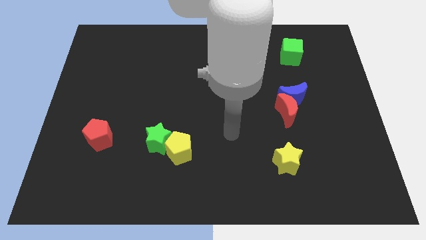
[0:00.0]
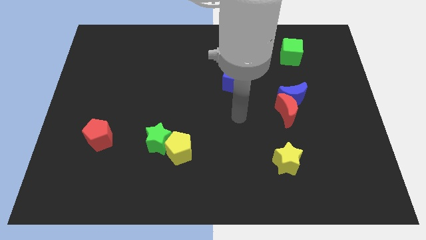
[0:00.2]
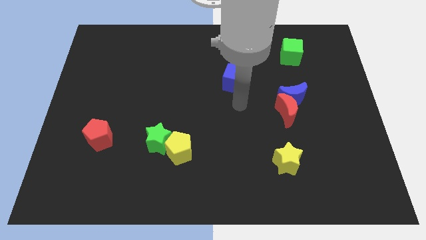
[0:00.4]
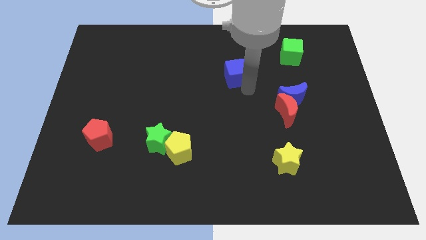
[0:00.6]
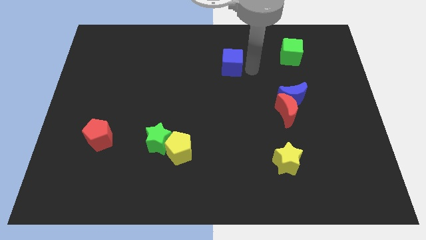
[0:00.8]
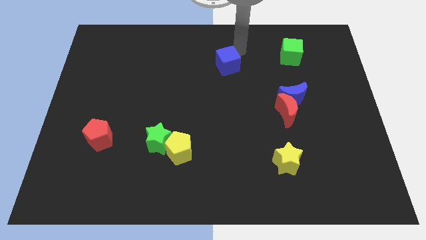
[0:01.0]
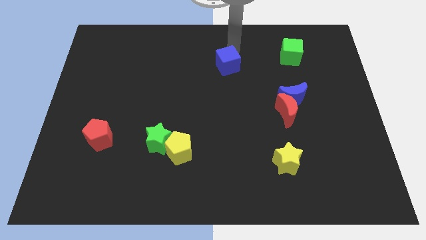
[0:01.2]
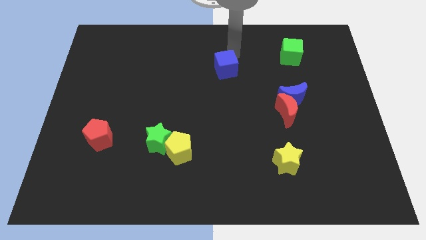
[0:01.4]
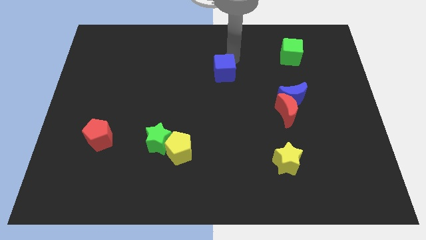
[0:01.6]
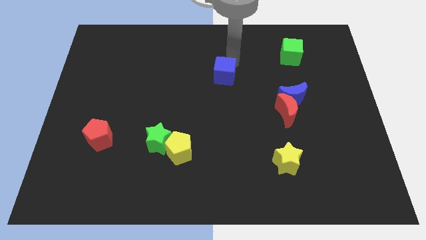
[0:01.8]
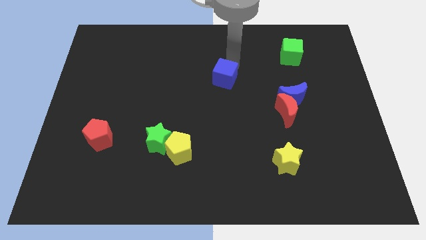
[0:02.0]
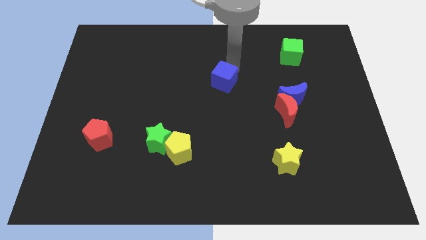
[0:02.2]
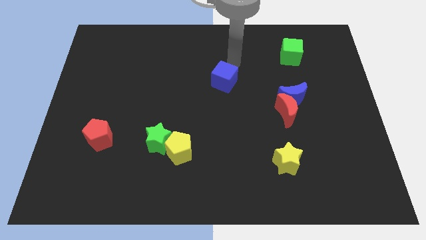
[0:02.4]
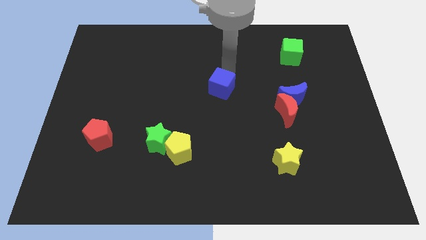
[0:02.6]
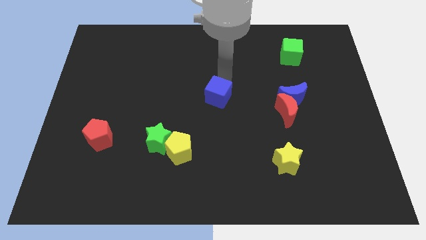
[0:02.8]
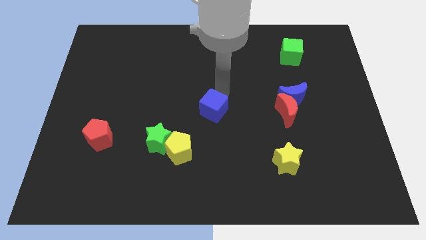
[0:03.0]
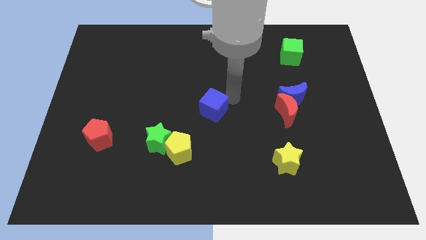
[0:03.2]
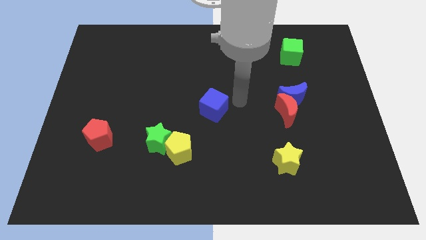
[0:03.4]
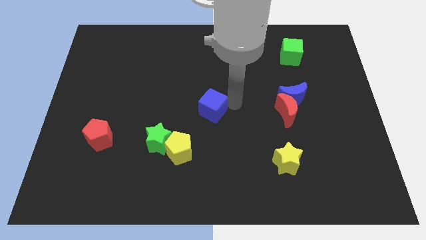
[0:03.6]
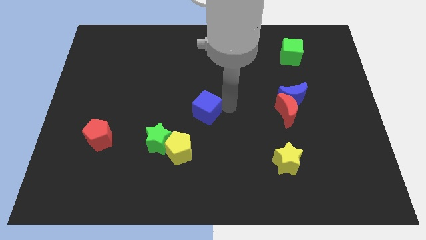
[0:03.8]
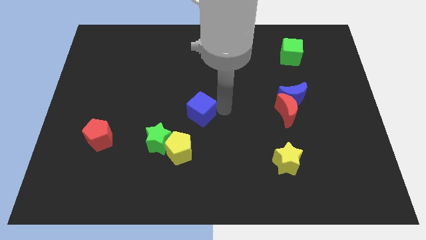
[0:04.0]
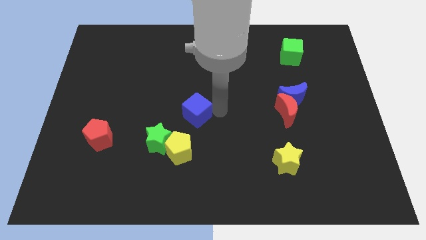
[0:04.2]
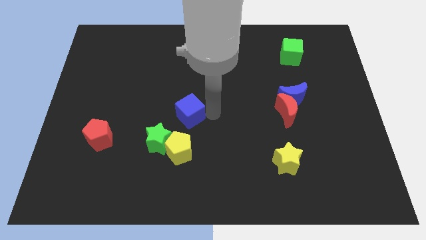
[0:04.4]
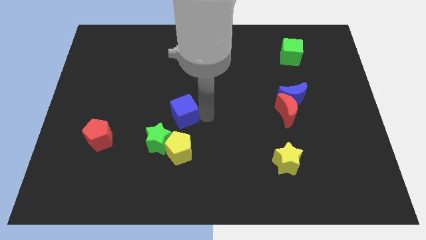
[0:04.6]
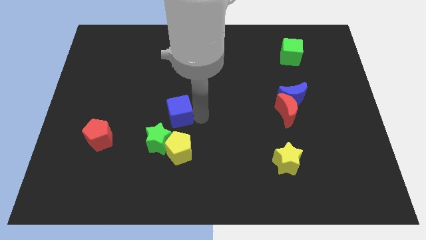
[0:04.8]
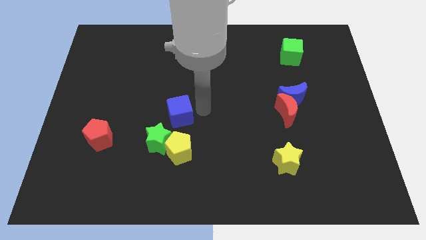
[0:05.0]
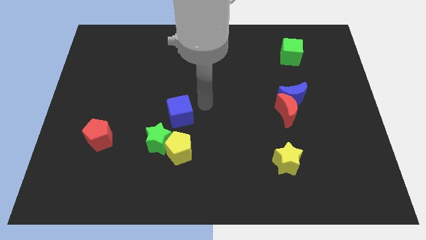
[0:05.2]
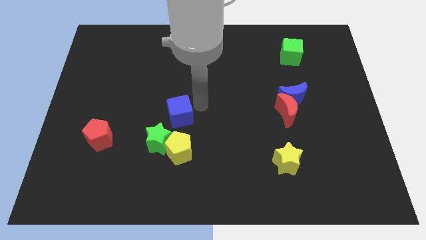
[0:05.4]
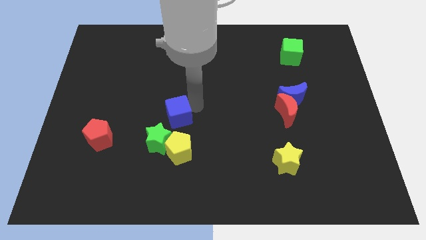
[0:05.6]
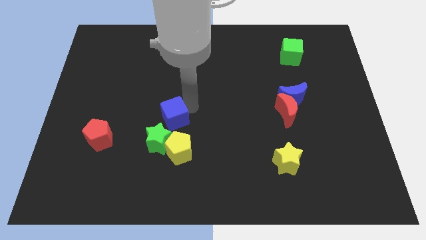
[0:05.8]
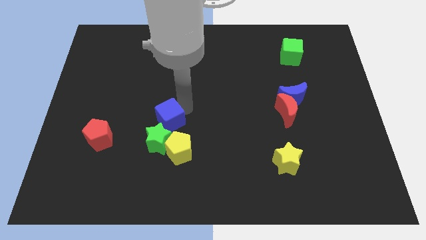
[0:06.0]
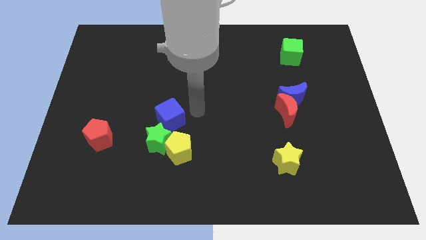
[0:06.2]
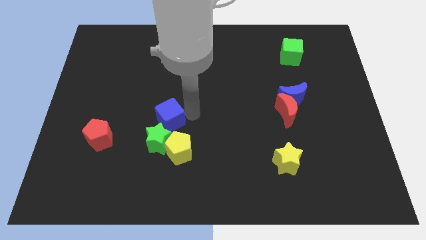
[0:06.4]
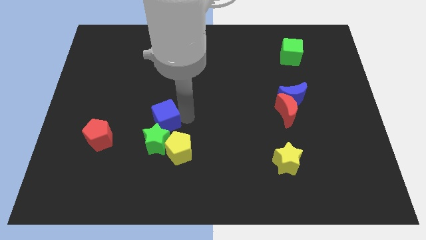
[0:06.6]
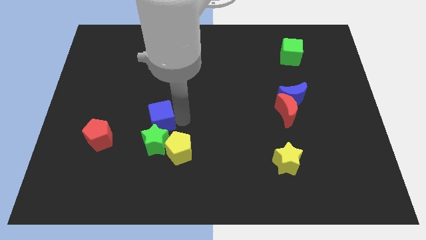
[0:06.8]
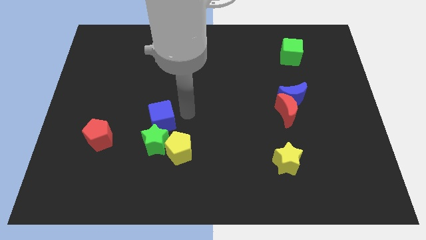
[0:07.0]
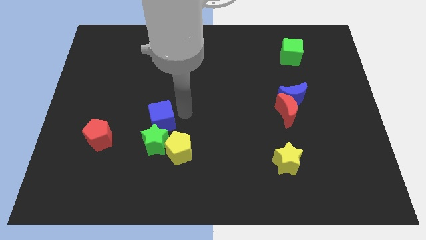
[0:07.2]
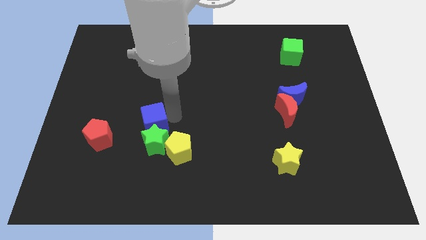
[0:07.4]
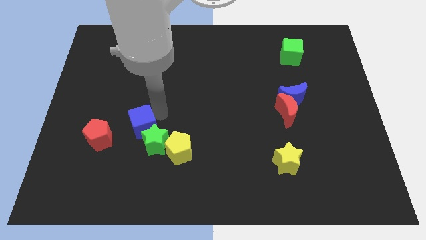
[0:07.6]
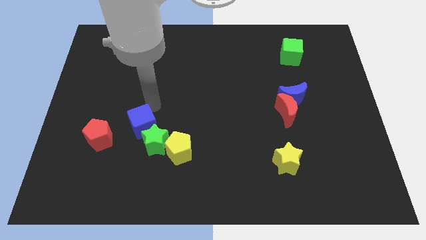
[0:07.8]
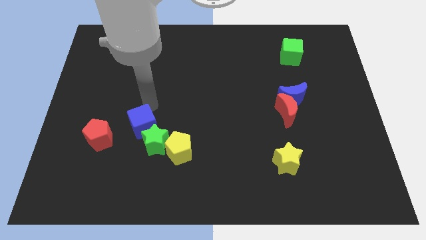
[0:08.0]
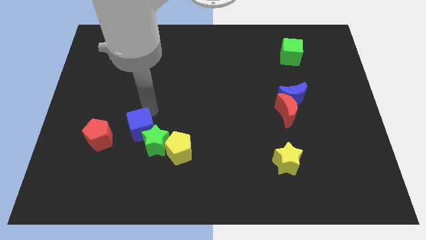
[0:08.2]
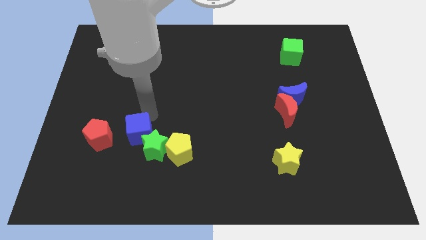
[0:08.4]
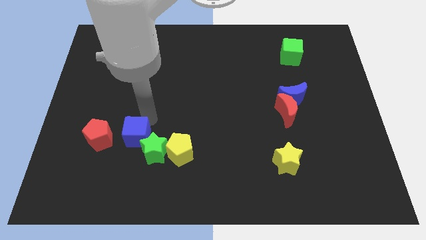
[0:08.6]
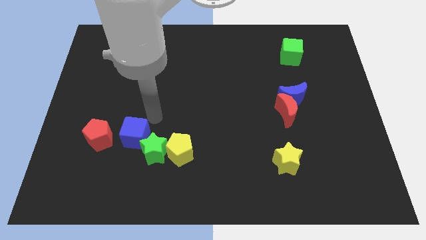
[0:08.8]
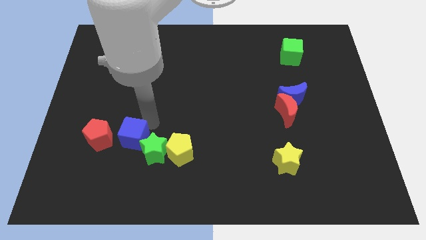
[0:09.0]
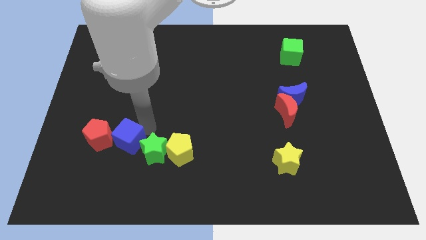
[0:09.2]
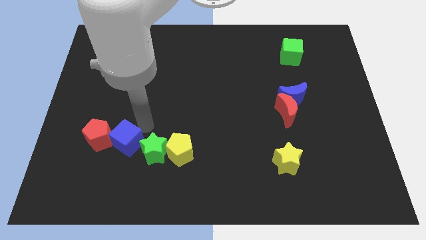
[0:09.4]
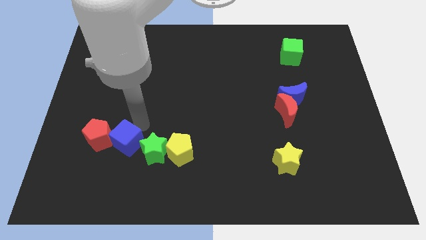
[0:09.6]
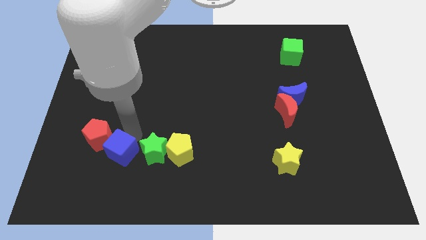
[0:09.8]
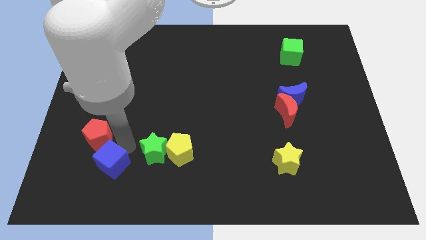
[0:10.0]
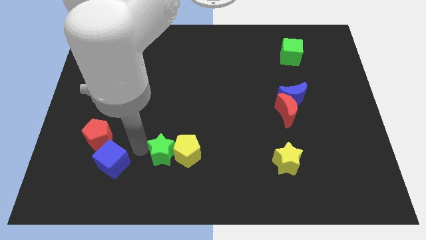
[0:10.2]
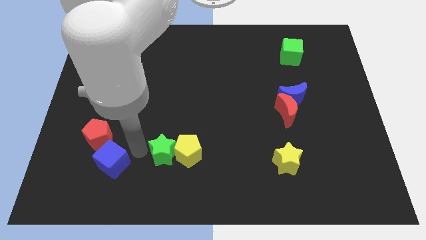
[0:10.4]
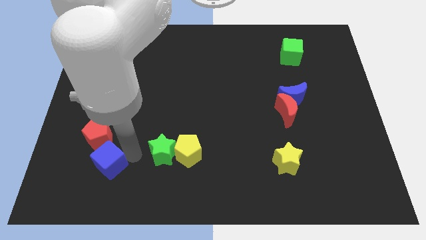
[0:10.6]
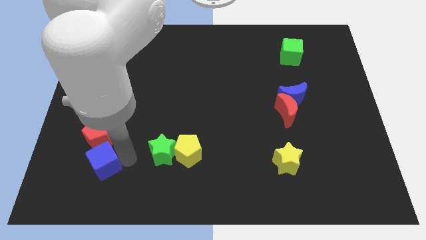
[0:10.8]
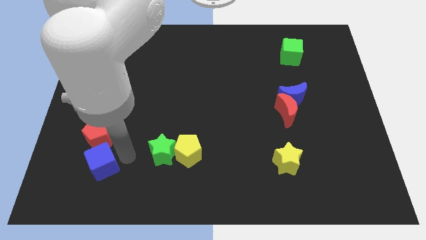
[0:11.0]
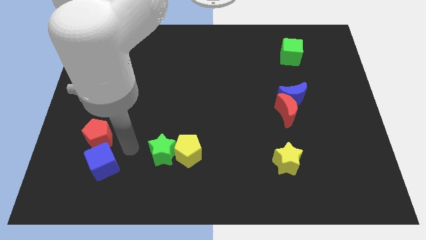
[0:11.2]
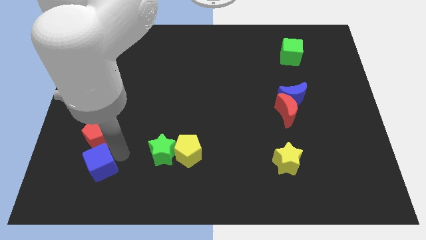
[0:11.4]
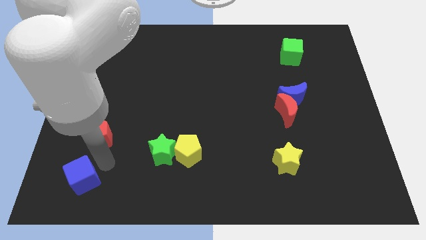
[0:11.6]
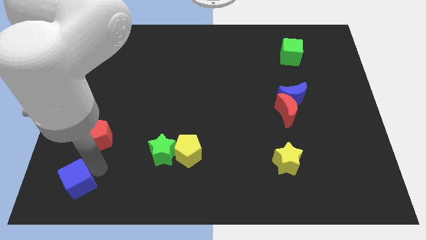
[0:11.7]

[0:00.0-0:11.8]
slide the blue cube to the bottom left corner
